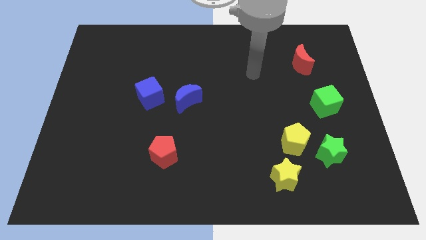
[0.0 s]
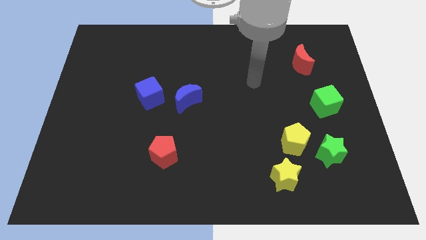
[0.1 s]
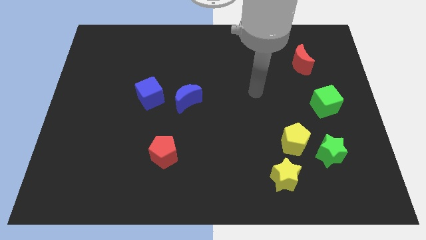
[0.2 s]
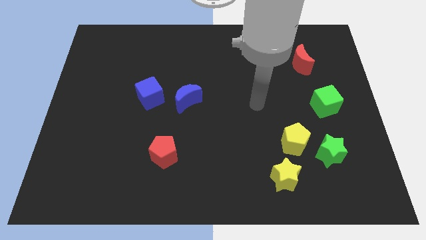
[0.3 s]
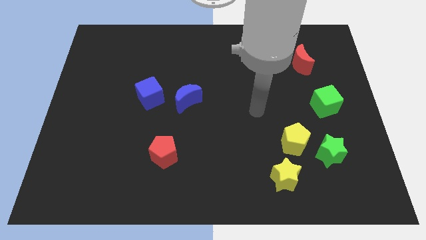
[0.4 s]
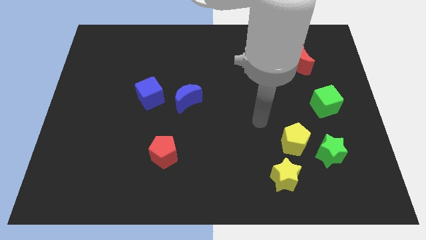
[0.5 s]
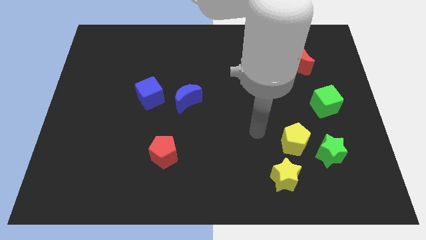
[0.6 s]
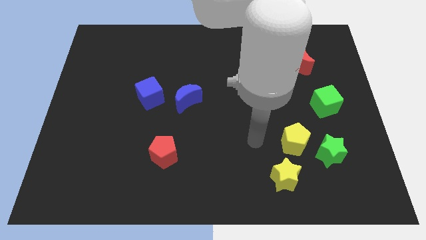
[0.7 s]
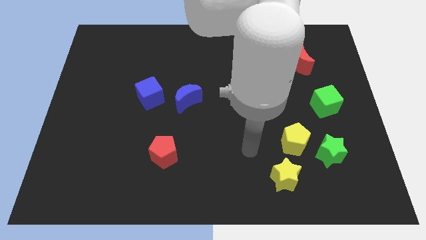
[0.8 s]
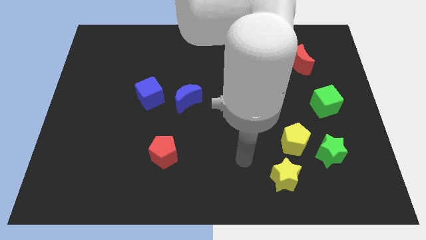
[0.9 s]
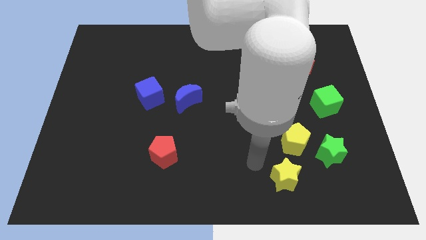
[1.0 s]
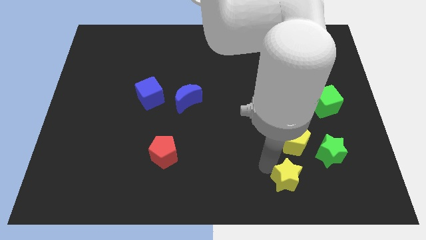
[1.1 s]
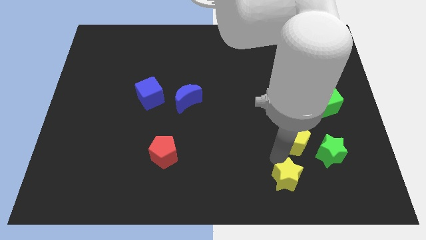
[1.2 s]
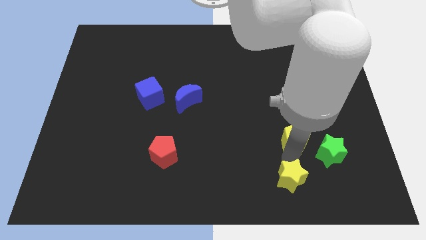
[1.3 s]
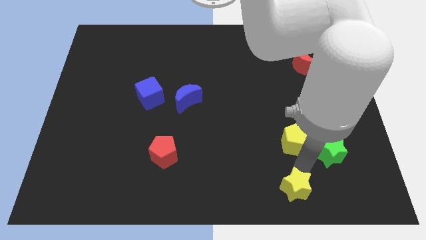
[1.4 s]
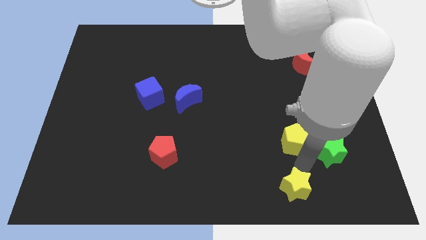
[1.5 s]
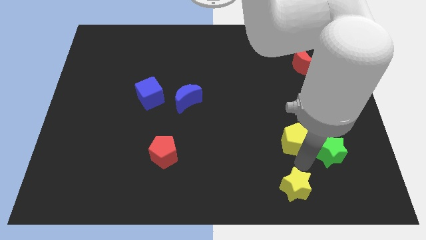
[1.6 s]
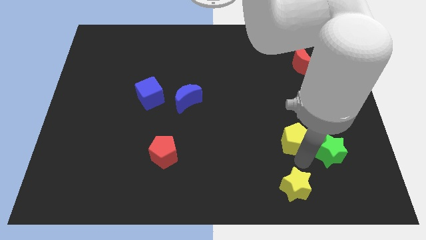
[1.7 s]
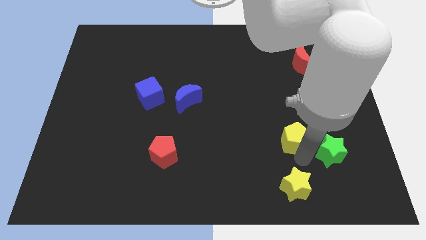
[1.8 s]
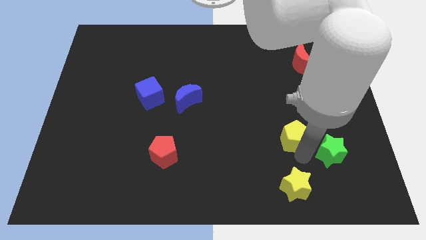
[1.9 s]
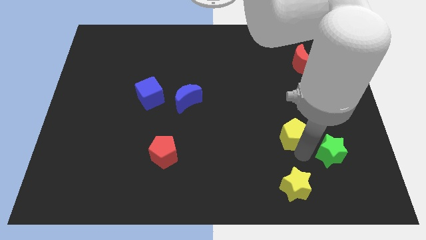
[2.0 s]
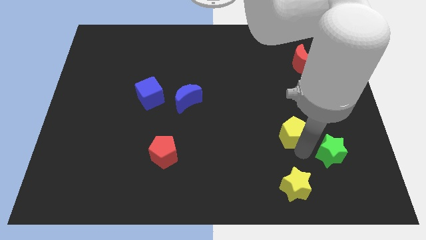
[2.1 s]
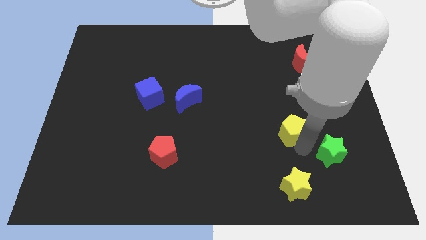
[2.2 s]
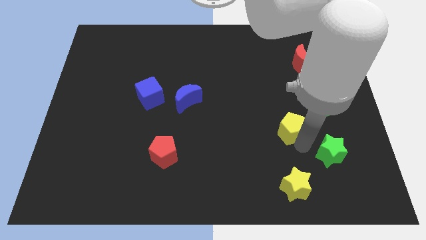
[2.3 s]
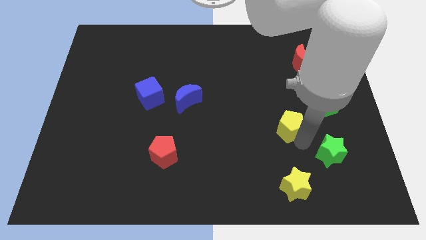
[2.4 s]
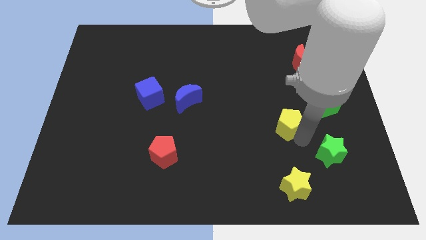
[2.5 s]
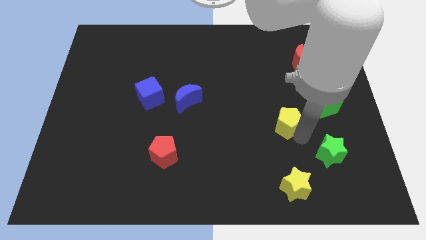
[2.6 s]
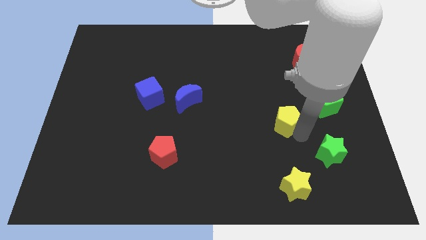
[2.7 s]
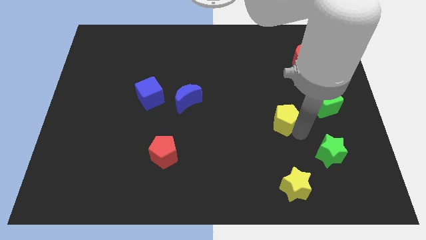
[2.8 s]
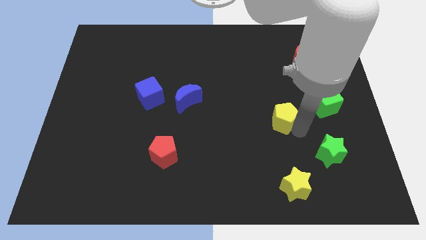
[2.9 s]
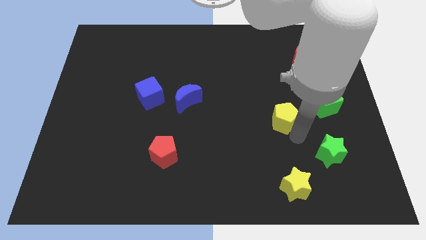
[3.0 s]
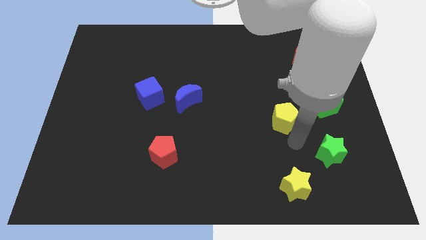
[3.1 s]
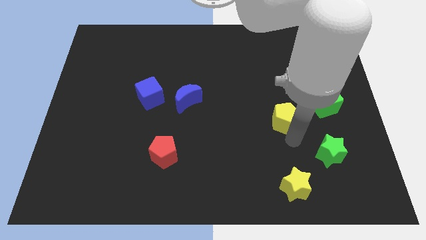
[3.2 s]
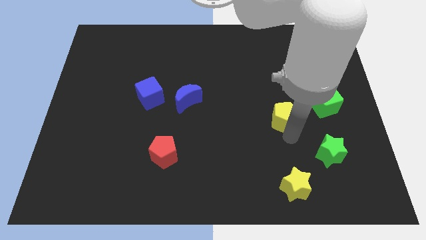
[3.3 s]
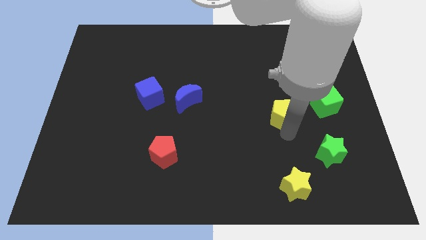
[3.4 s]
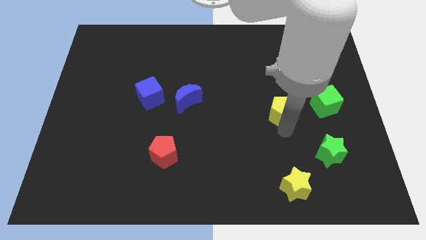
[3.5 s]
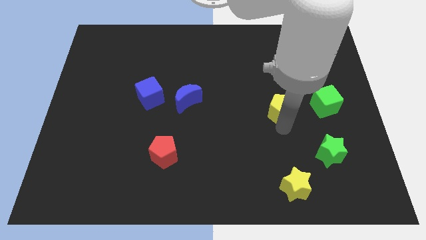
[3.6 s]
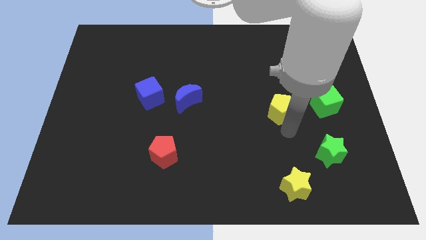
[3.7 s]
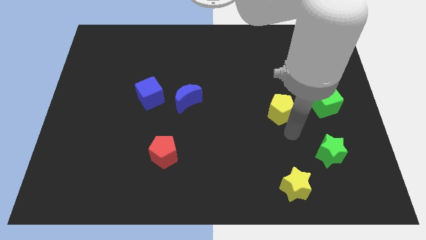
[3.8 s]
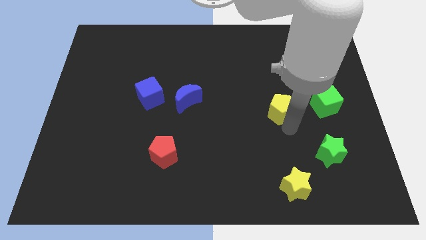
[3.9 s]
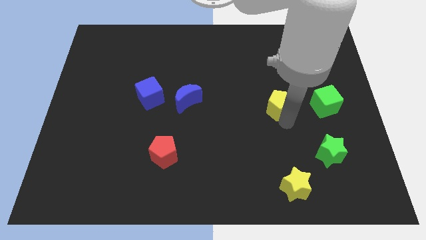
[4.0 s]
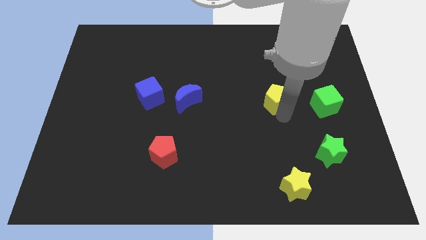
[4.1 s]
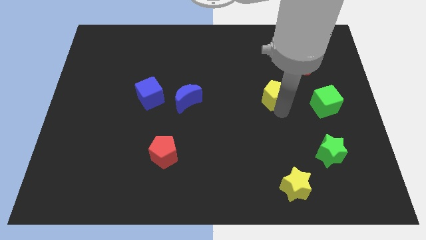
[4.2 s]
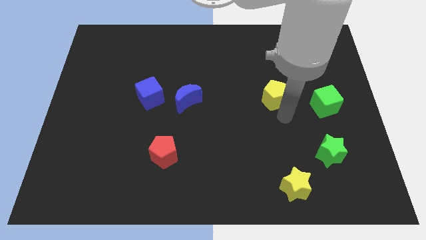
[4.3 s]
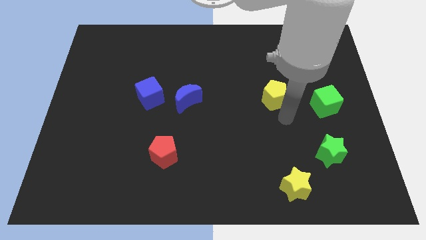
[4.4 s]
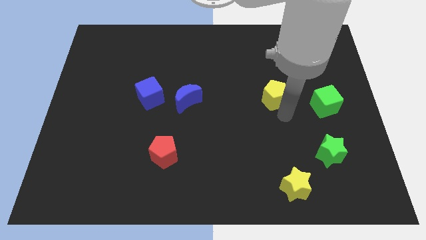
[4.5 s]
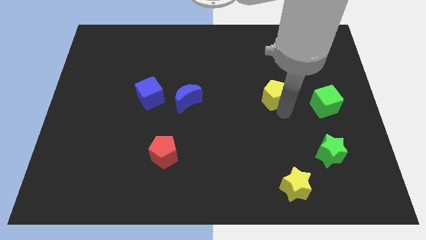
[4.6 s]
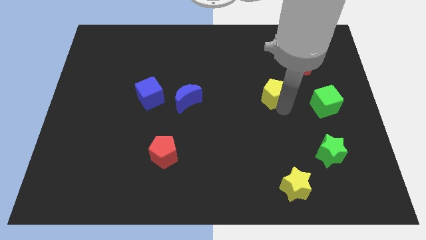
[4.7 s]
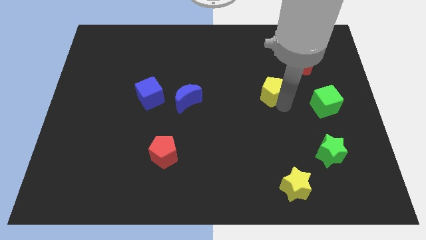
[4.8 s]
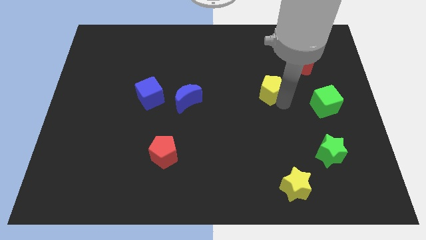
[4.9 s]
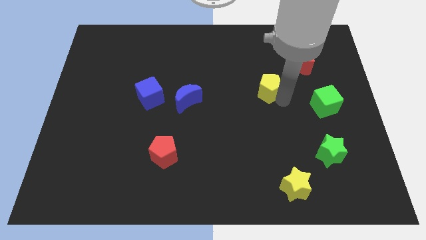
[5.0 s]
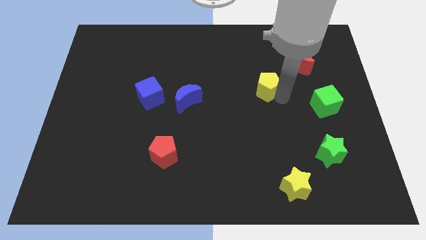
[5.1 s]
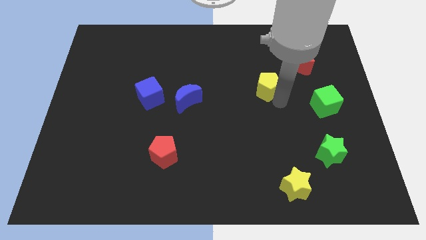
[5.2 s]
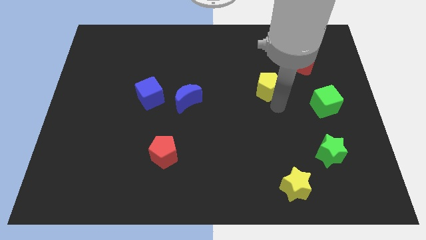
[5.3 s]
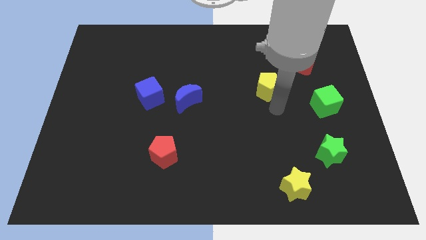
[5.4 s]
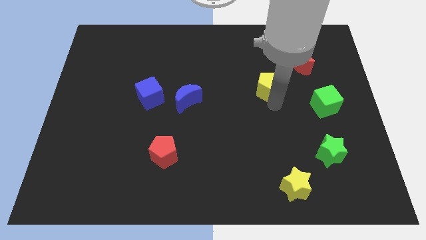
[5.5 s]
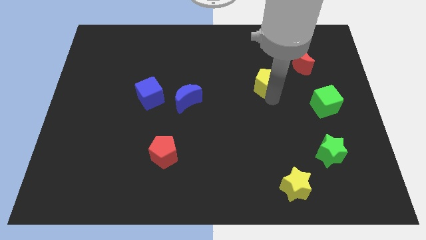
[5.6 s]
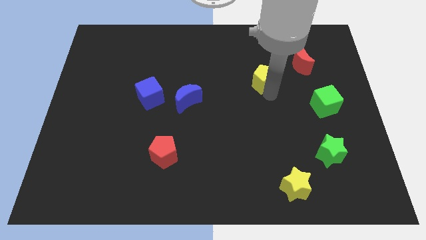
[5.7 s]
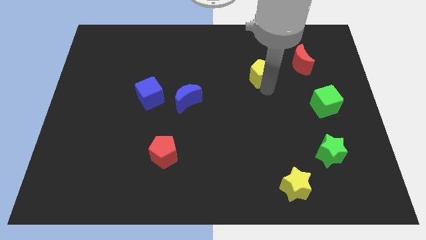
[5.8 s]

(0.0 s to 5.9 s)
move the yellow pentagon just left of the red moon

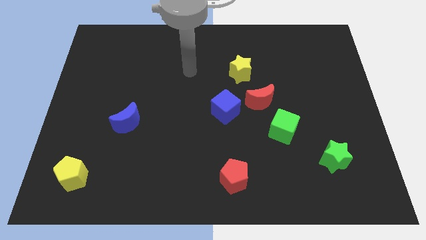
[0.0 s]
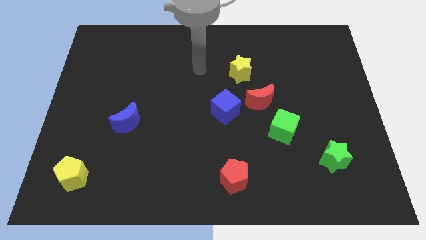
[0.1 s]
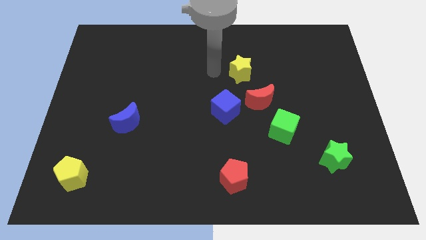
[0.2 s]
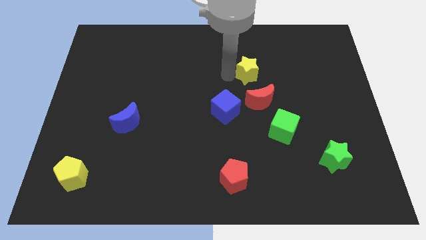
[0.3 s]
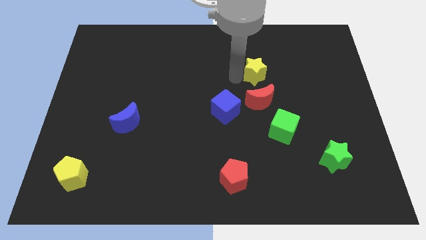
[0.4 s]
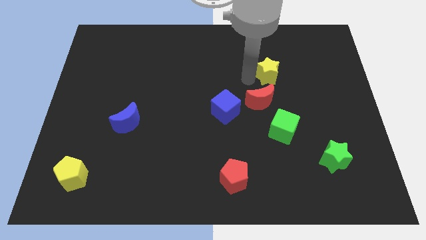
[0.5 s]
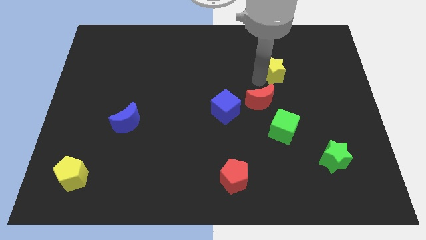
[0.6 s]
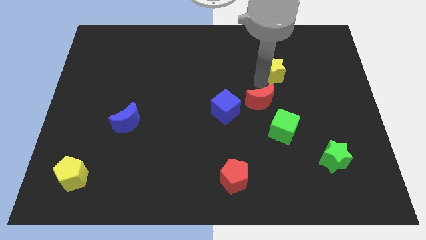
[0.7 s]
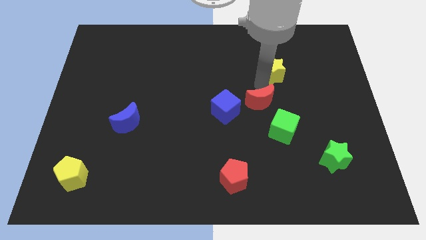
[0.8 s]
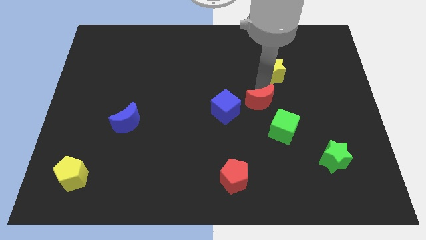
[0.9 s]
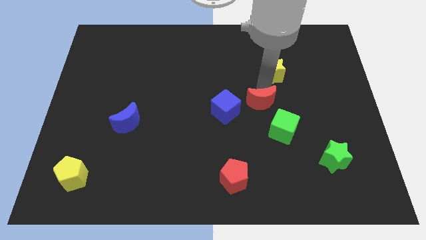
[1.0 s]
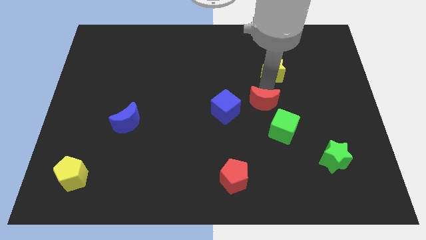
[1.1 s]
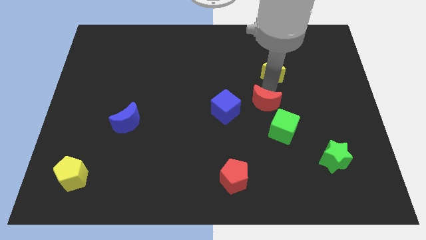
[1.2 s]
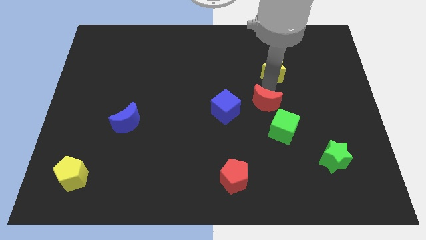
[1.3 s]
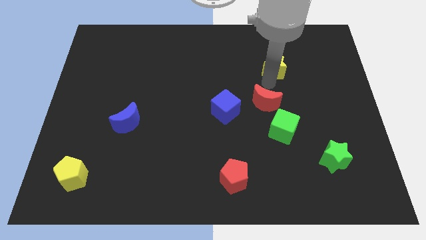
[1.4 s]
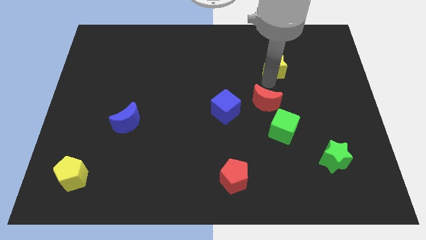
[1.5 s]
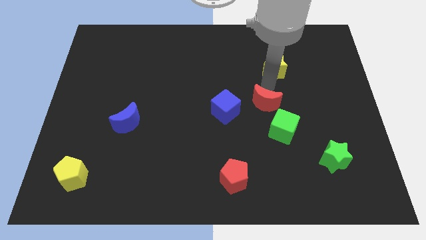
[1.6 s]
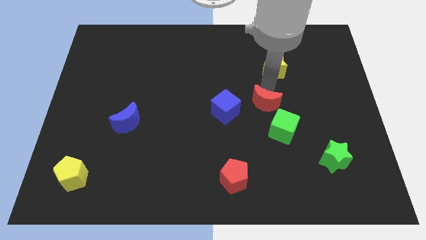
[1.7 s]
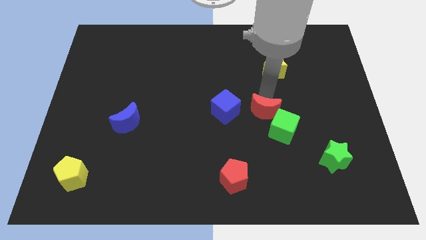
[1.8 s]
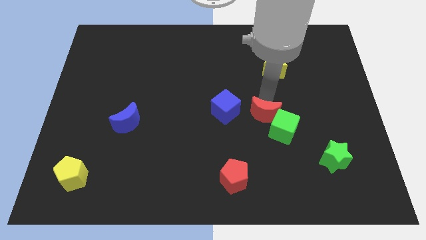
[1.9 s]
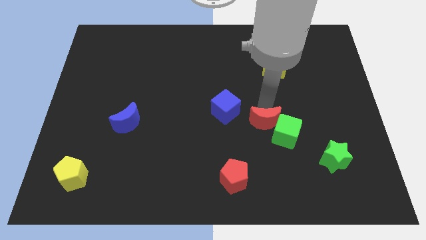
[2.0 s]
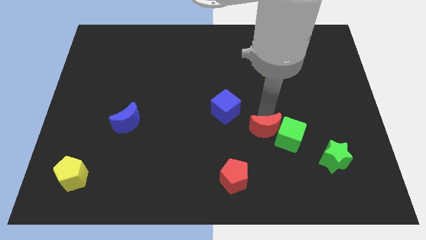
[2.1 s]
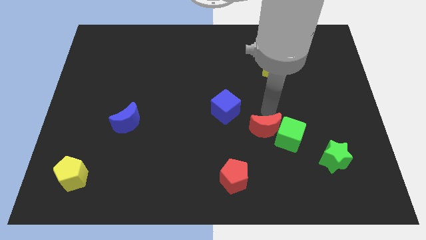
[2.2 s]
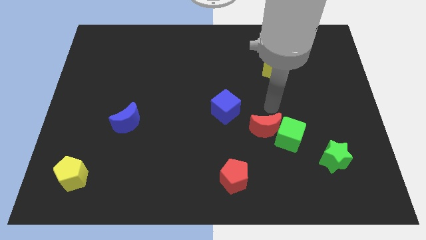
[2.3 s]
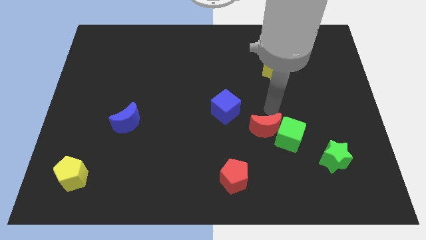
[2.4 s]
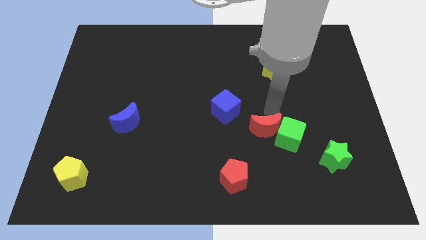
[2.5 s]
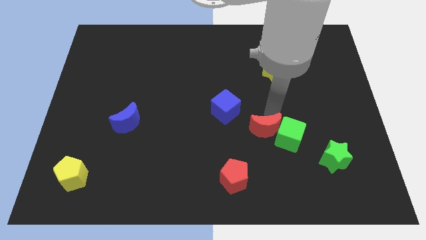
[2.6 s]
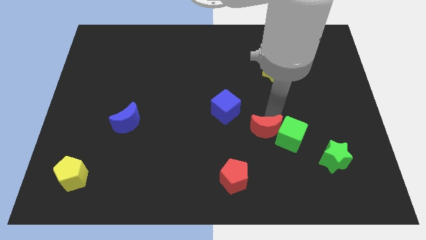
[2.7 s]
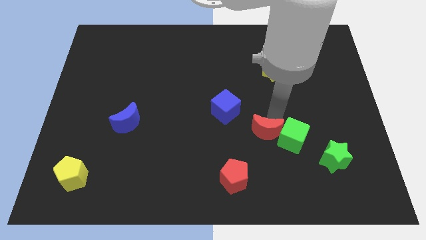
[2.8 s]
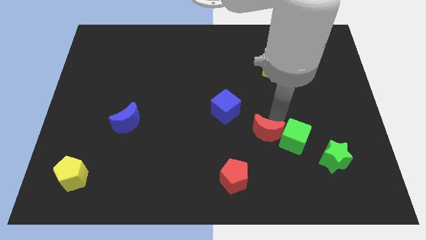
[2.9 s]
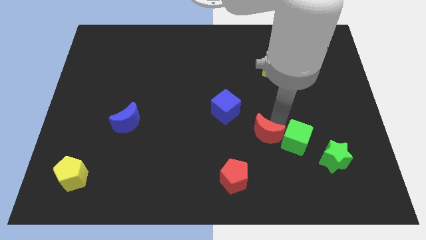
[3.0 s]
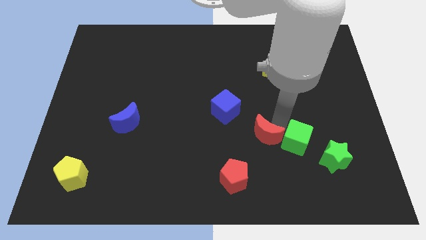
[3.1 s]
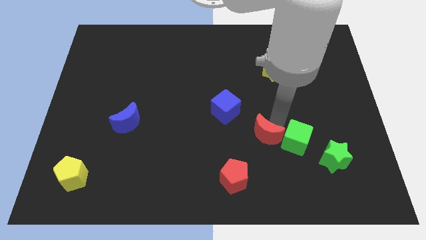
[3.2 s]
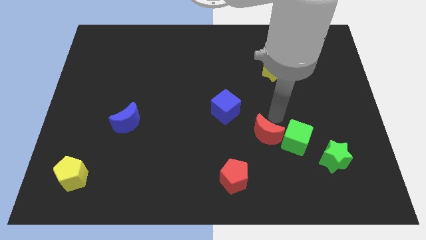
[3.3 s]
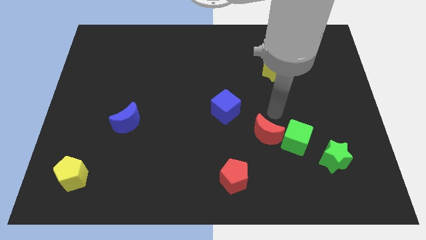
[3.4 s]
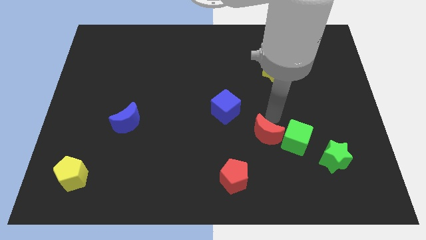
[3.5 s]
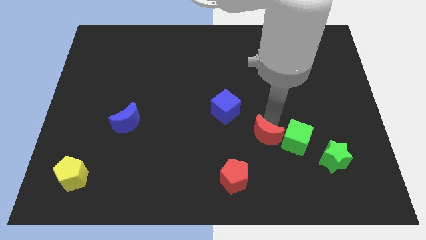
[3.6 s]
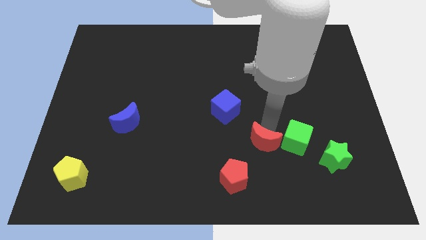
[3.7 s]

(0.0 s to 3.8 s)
push the red moon diagonally up and to the right of the red pentagon
